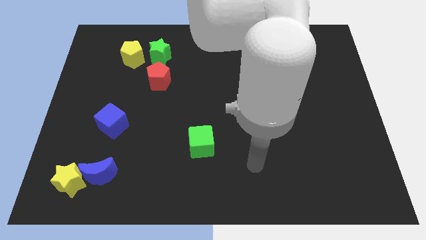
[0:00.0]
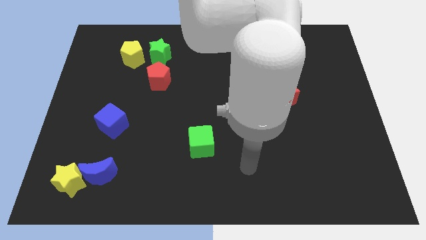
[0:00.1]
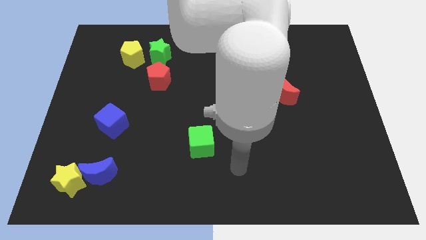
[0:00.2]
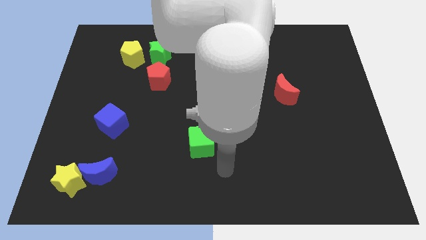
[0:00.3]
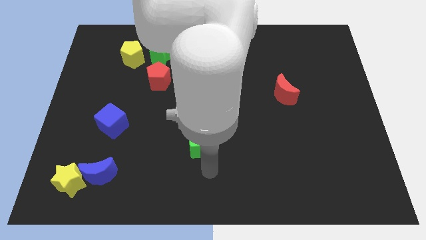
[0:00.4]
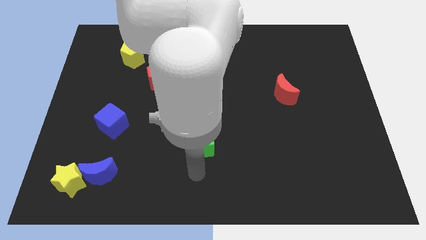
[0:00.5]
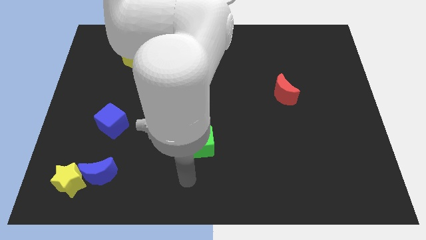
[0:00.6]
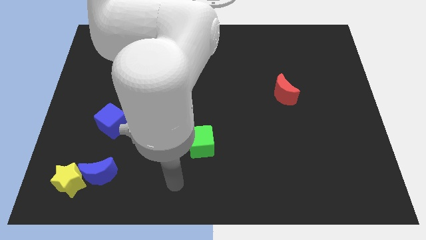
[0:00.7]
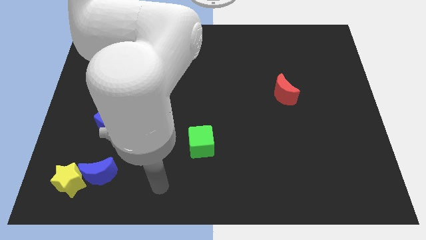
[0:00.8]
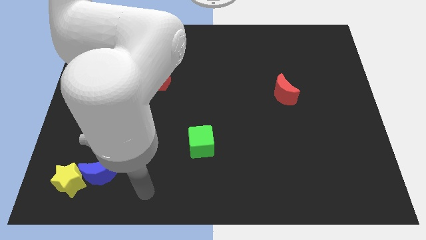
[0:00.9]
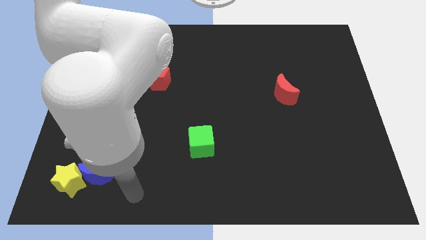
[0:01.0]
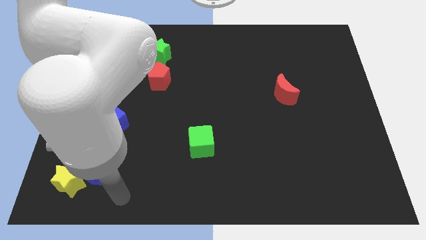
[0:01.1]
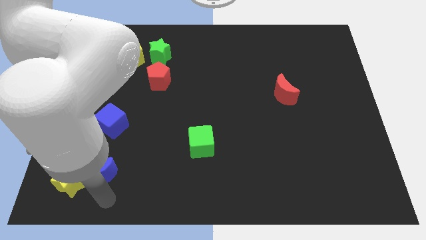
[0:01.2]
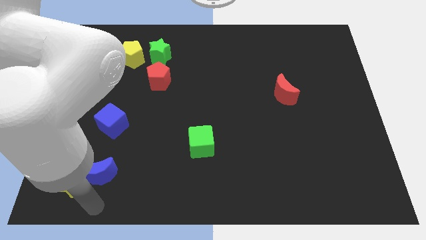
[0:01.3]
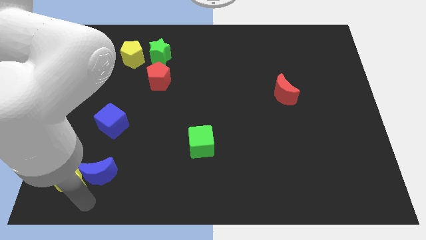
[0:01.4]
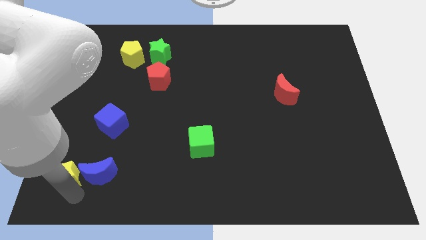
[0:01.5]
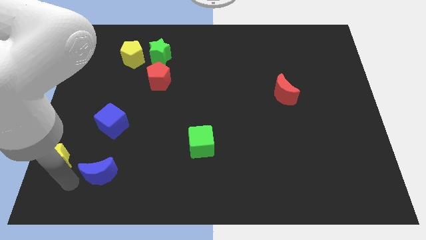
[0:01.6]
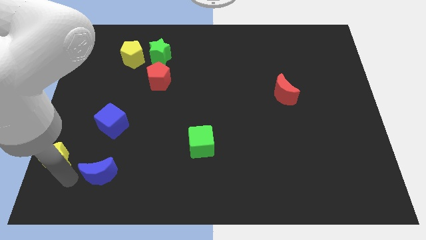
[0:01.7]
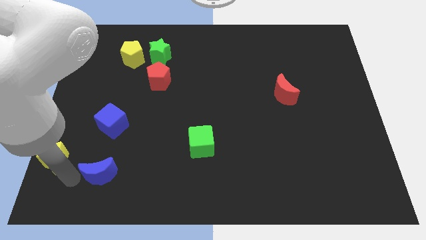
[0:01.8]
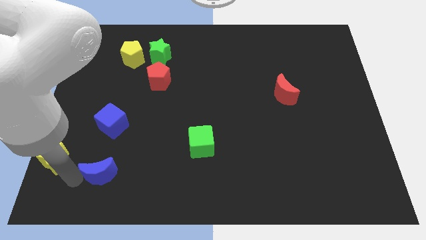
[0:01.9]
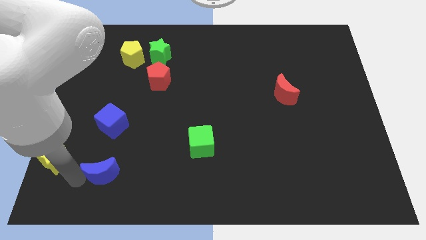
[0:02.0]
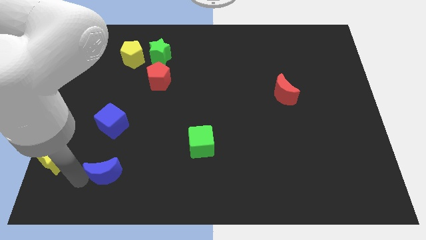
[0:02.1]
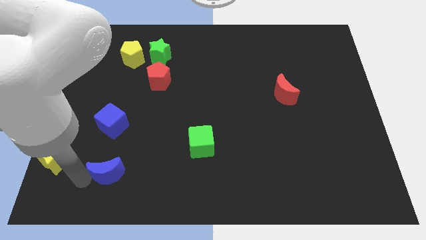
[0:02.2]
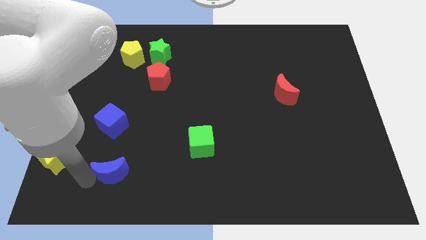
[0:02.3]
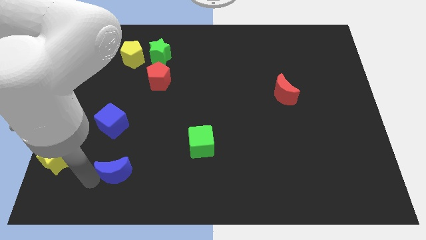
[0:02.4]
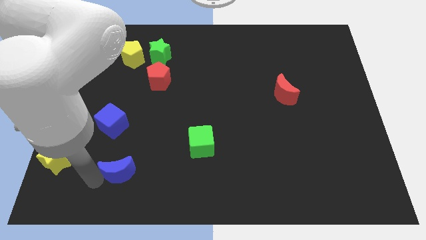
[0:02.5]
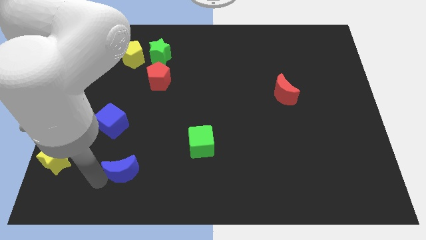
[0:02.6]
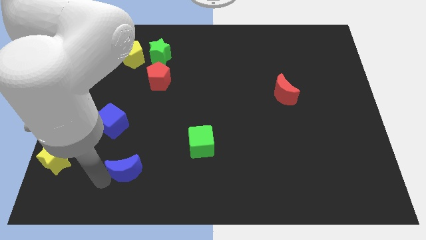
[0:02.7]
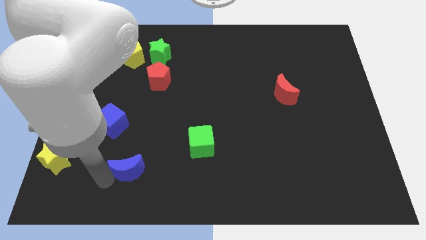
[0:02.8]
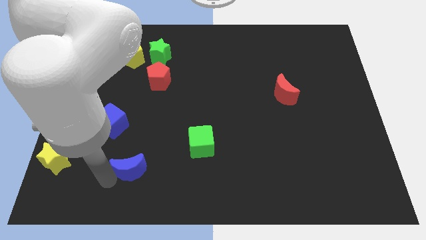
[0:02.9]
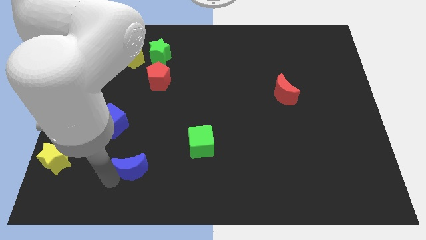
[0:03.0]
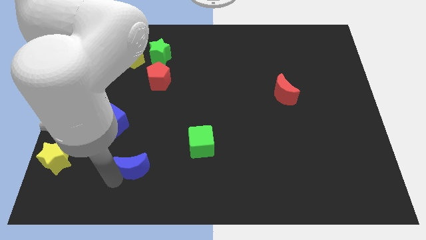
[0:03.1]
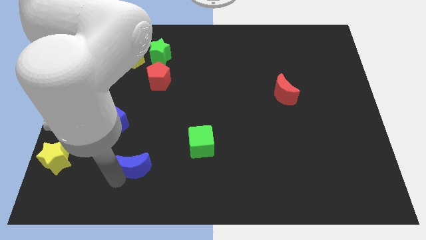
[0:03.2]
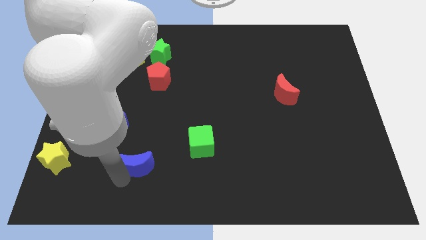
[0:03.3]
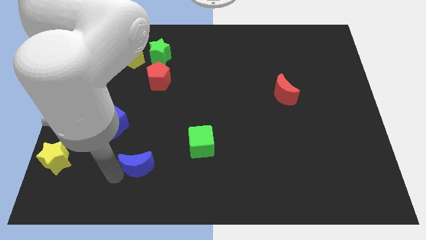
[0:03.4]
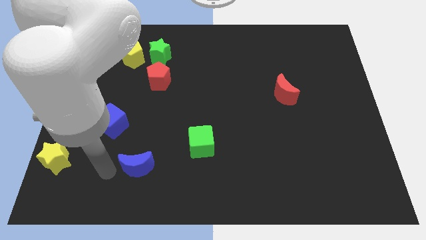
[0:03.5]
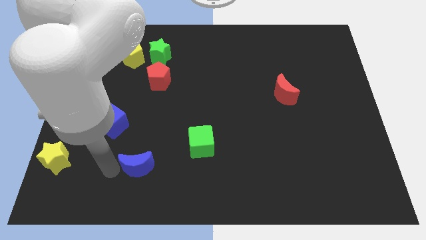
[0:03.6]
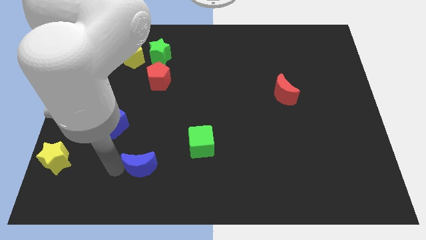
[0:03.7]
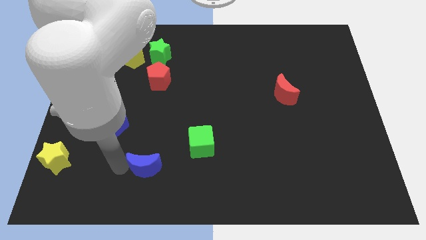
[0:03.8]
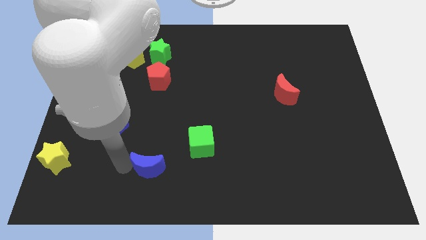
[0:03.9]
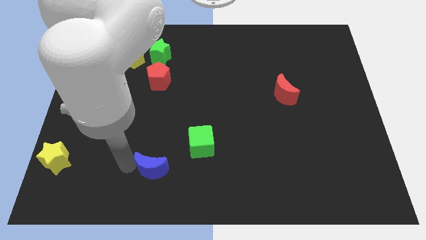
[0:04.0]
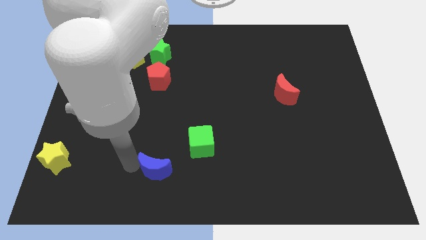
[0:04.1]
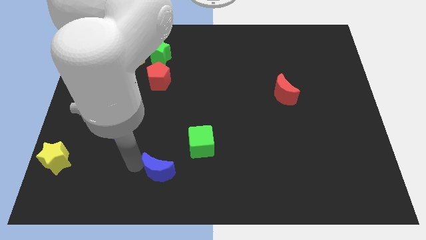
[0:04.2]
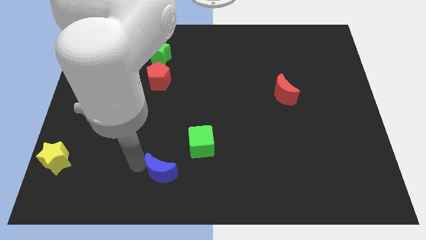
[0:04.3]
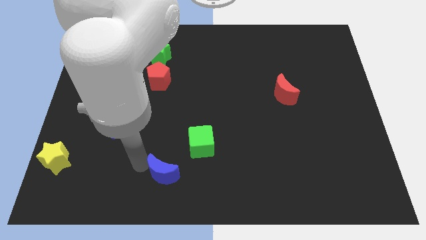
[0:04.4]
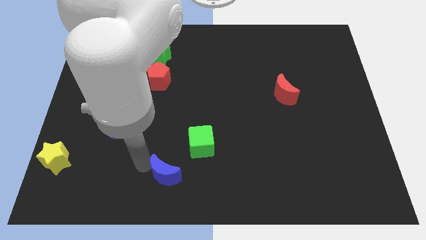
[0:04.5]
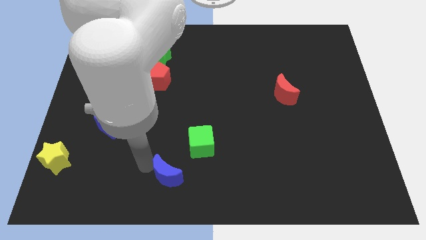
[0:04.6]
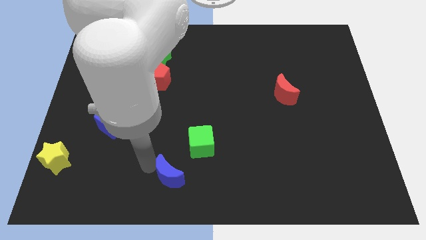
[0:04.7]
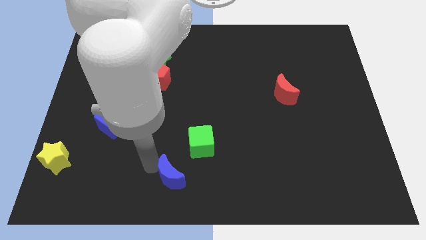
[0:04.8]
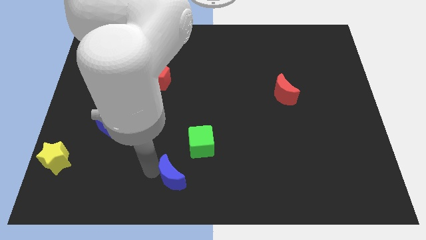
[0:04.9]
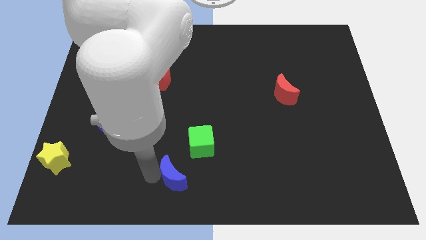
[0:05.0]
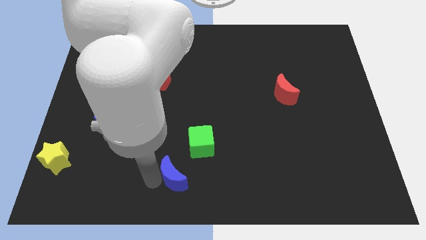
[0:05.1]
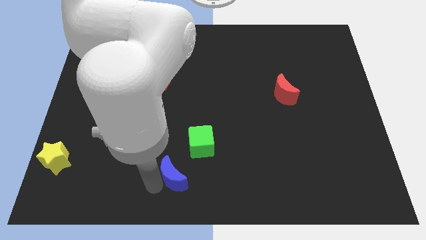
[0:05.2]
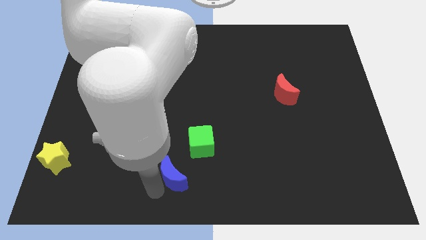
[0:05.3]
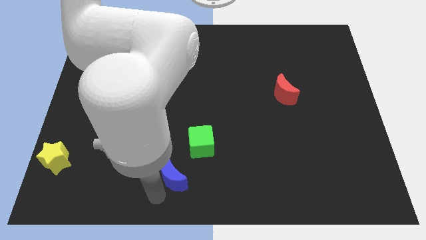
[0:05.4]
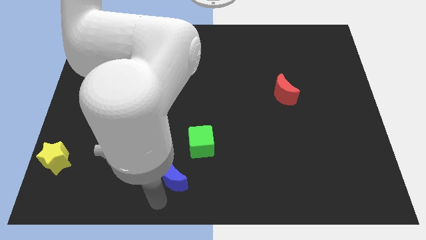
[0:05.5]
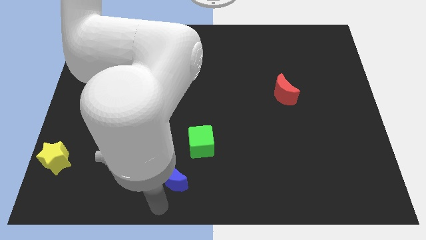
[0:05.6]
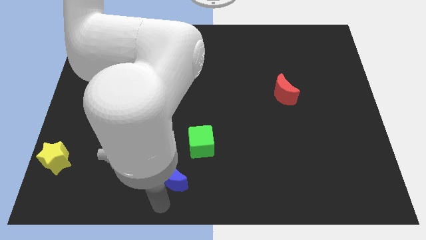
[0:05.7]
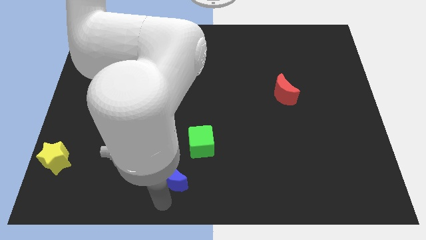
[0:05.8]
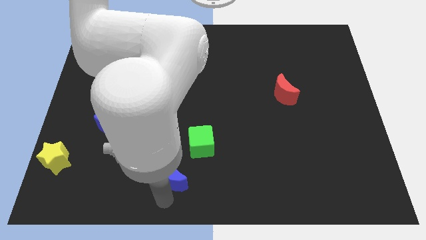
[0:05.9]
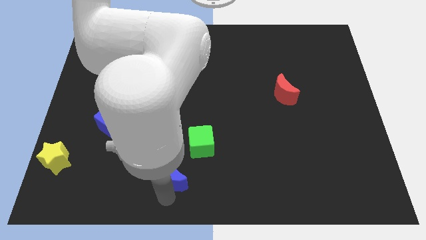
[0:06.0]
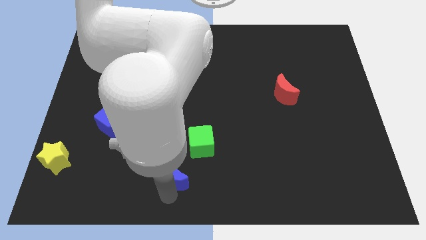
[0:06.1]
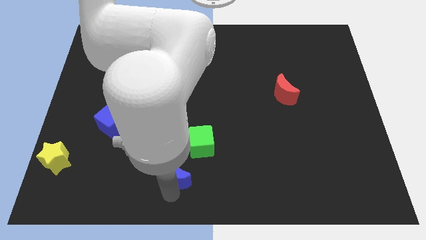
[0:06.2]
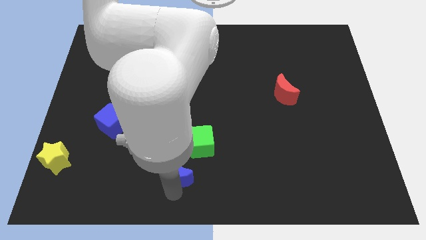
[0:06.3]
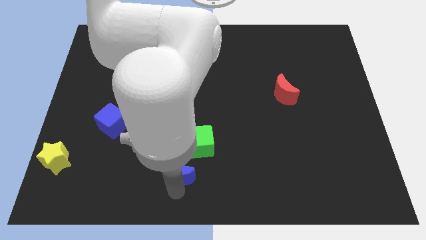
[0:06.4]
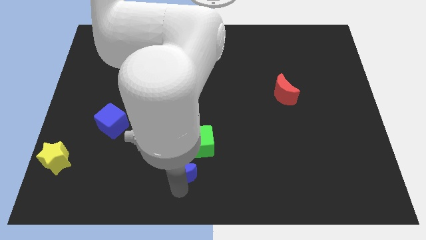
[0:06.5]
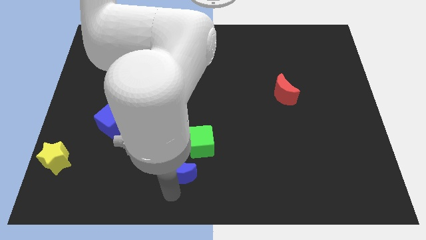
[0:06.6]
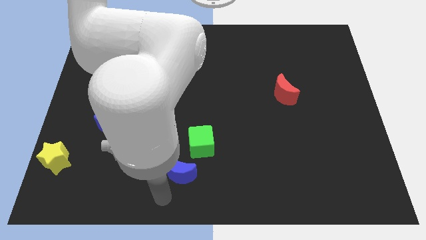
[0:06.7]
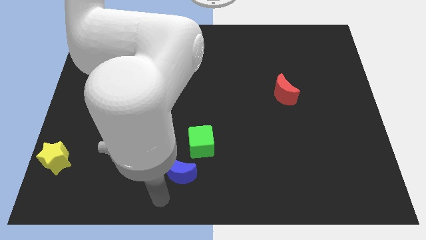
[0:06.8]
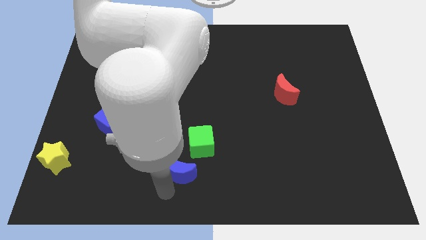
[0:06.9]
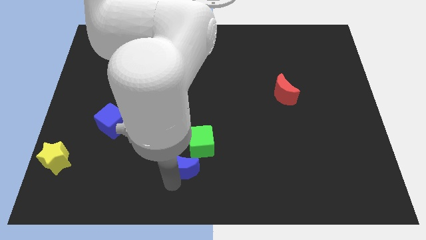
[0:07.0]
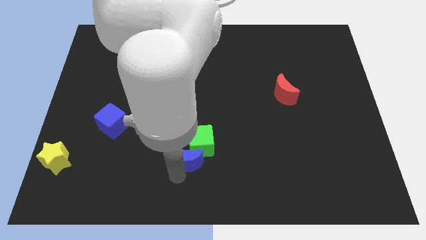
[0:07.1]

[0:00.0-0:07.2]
push the blue moon towards the green cube
